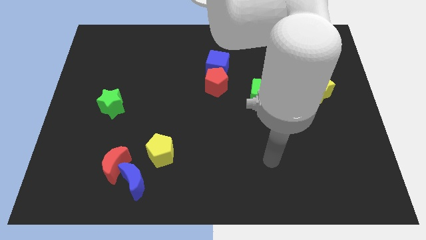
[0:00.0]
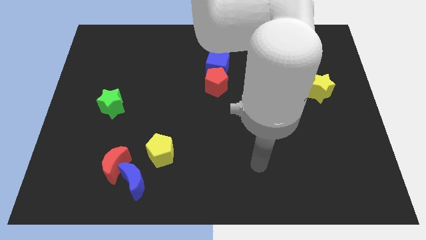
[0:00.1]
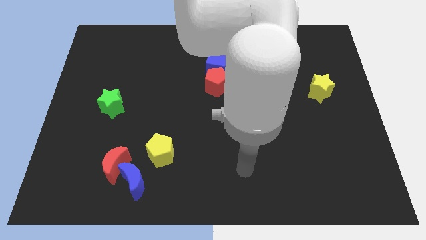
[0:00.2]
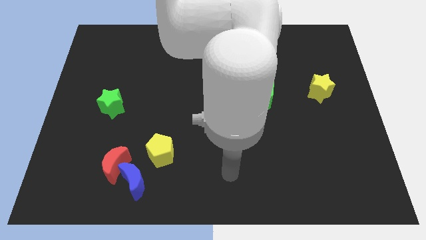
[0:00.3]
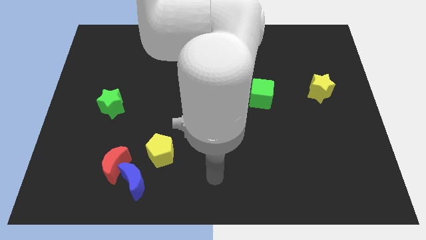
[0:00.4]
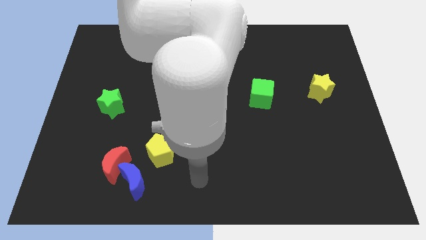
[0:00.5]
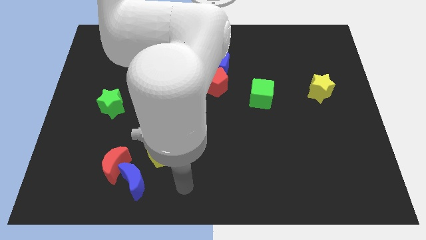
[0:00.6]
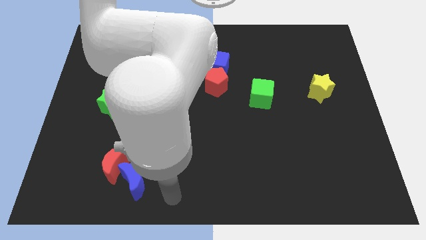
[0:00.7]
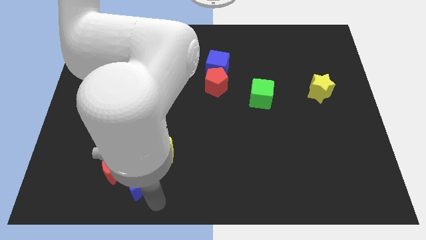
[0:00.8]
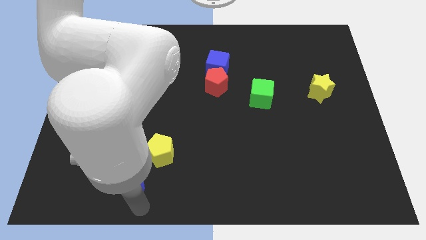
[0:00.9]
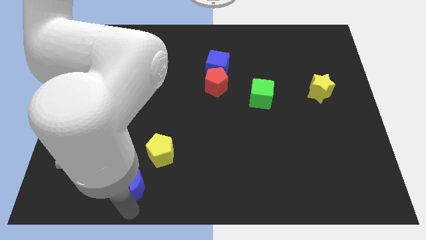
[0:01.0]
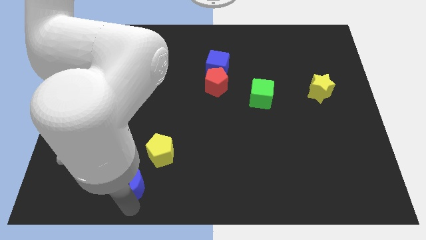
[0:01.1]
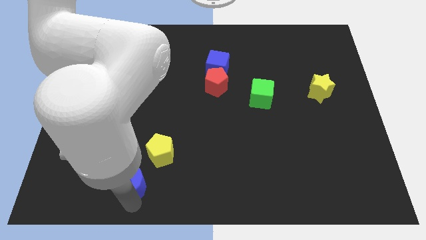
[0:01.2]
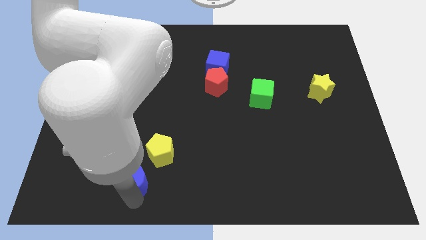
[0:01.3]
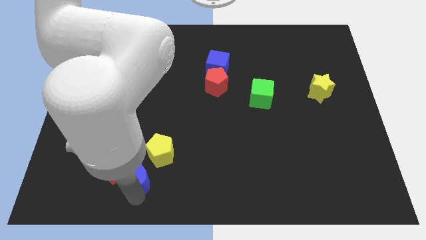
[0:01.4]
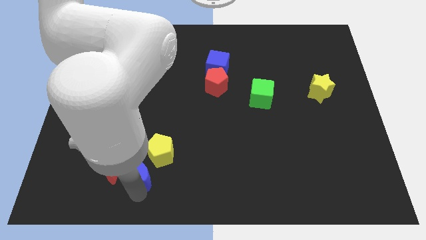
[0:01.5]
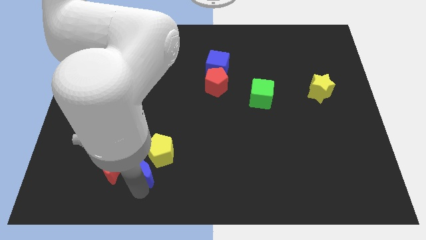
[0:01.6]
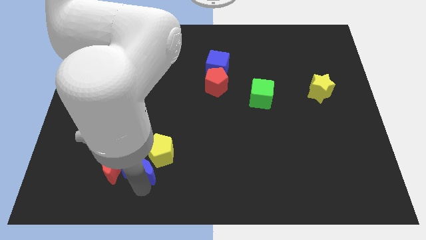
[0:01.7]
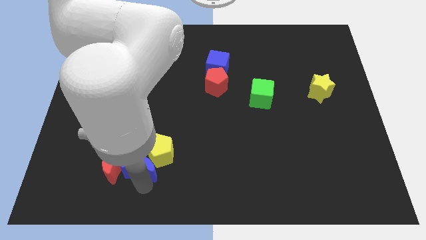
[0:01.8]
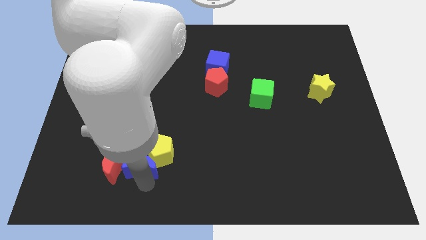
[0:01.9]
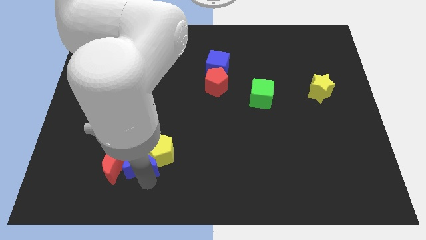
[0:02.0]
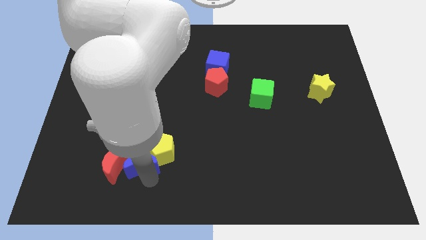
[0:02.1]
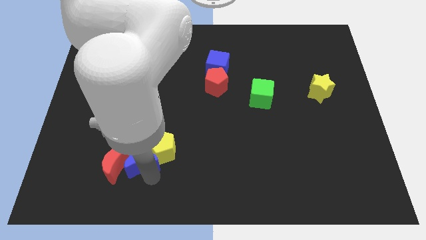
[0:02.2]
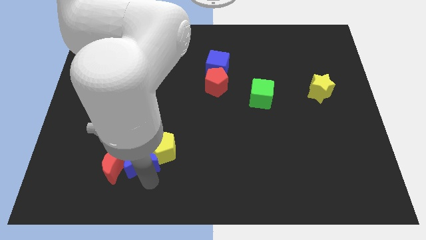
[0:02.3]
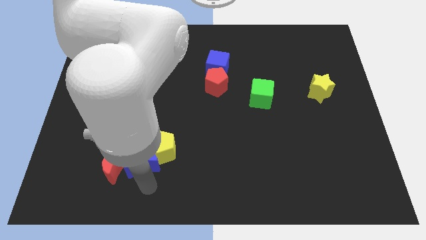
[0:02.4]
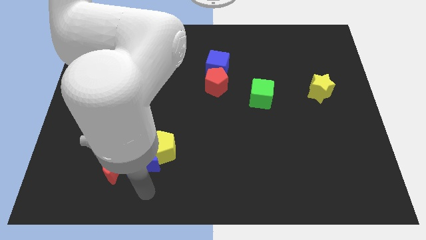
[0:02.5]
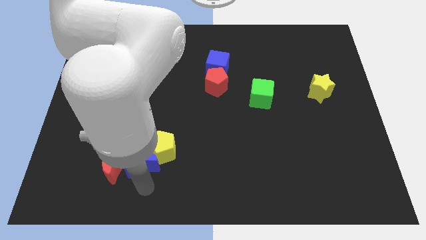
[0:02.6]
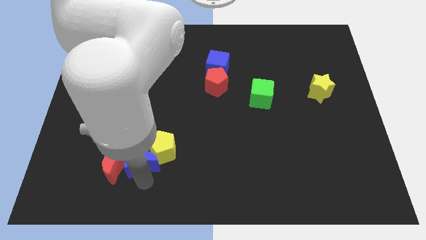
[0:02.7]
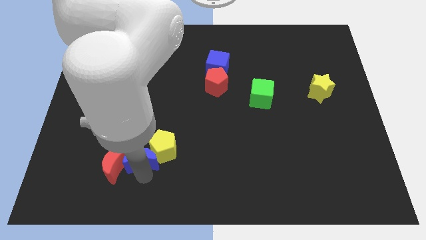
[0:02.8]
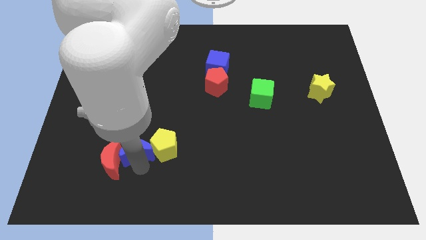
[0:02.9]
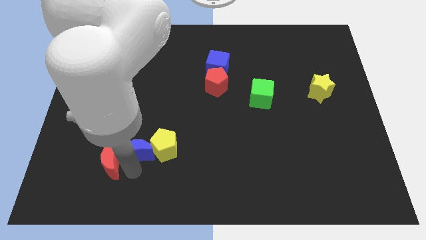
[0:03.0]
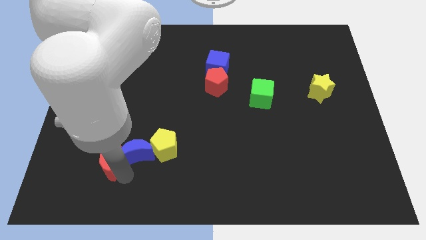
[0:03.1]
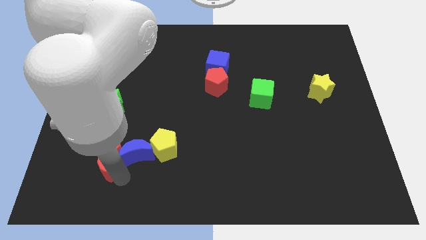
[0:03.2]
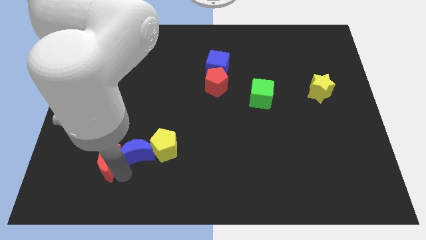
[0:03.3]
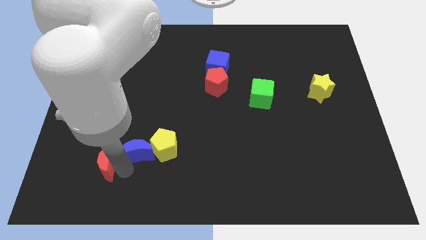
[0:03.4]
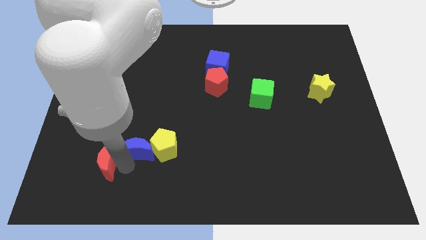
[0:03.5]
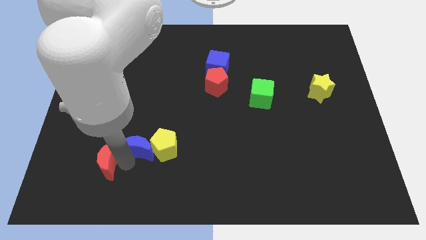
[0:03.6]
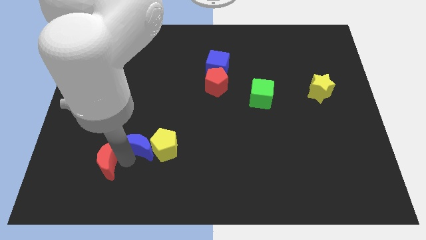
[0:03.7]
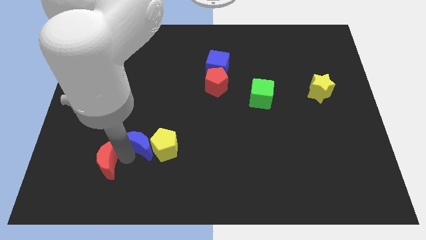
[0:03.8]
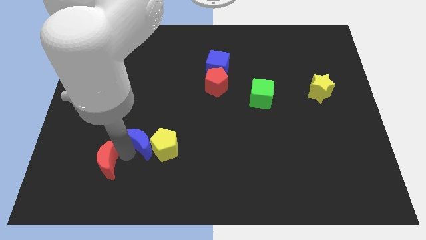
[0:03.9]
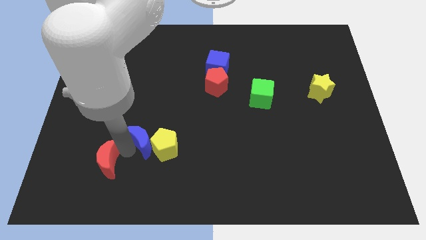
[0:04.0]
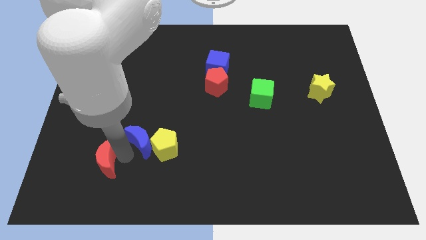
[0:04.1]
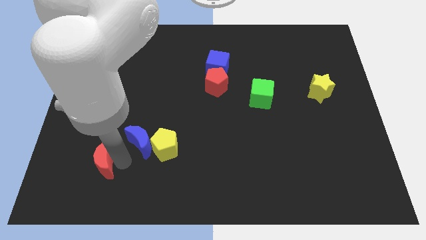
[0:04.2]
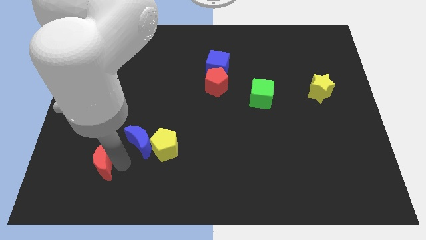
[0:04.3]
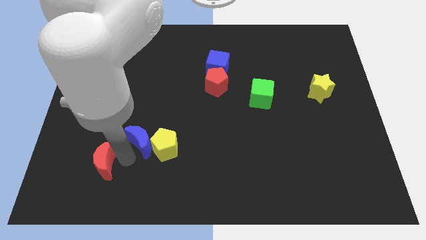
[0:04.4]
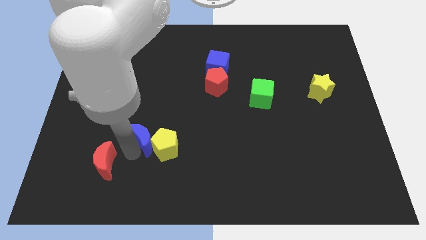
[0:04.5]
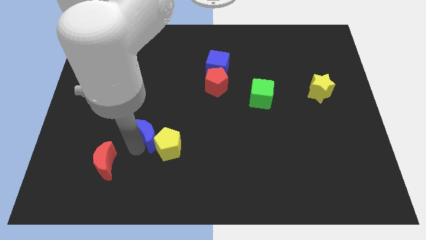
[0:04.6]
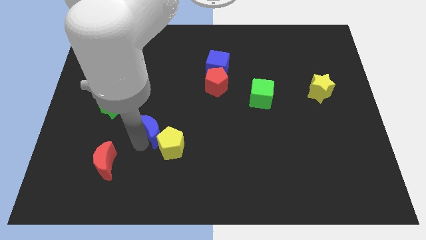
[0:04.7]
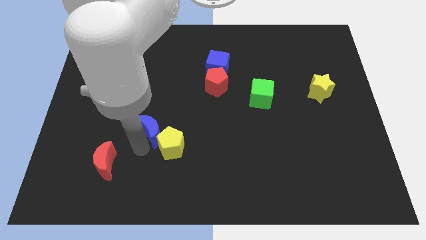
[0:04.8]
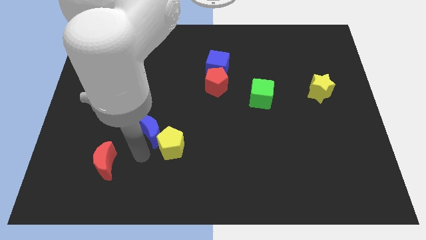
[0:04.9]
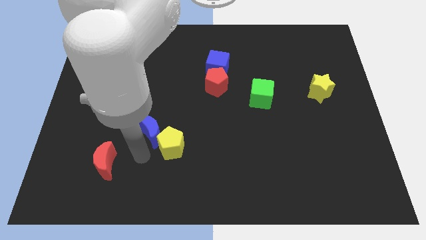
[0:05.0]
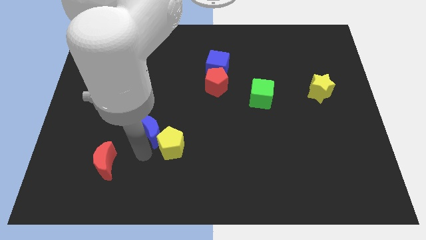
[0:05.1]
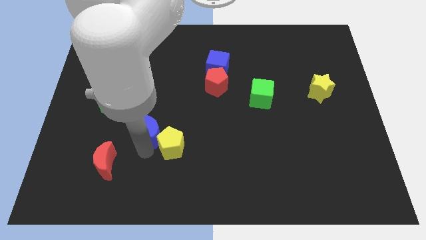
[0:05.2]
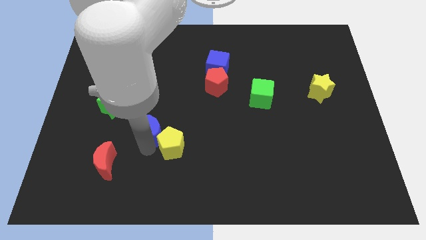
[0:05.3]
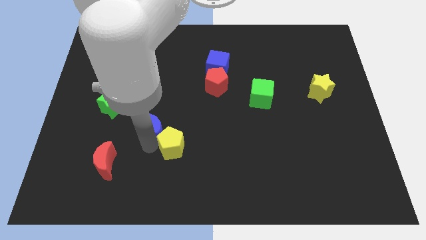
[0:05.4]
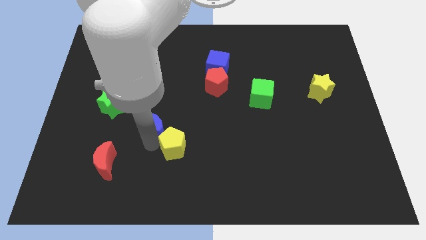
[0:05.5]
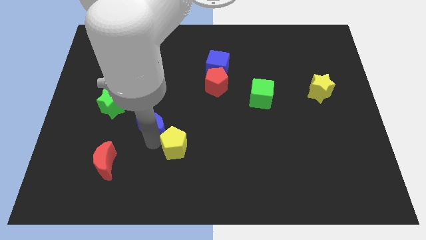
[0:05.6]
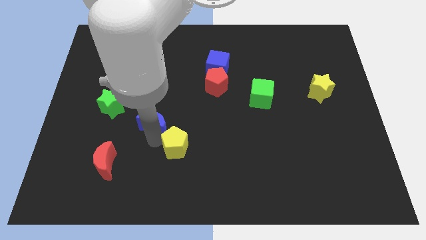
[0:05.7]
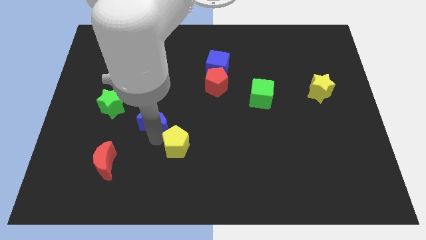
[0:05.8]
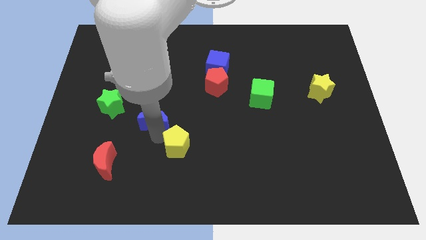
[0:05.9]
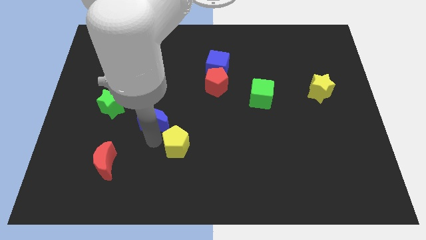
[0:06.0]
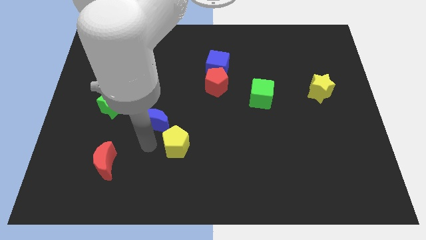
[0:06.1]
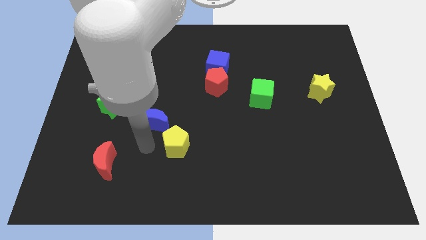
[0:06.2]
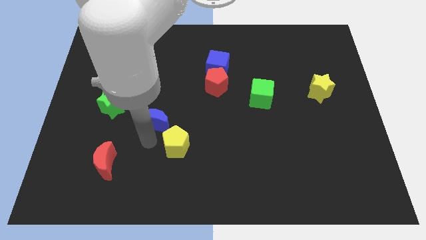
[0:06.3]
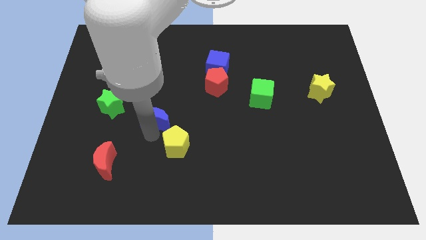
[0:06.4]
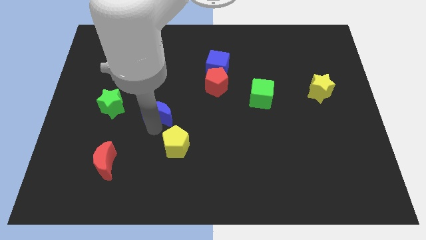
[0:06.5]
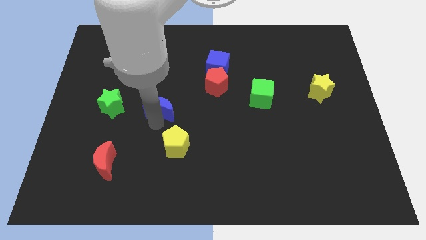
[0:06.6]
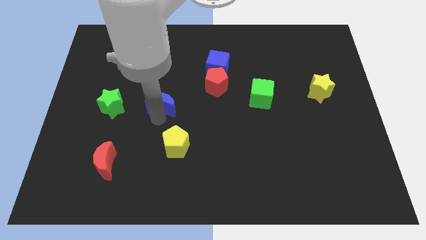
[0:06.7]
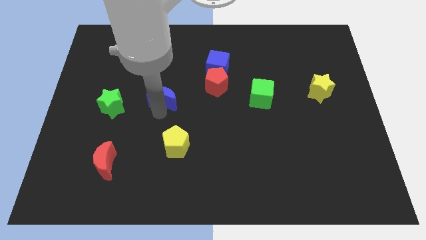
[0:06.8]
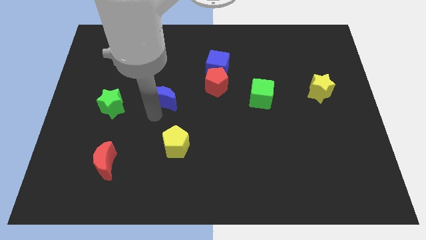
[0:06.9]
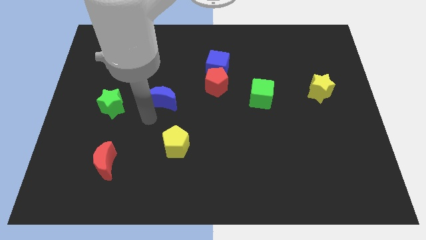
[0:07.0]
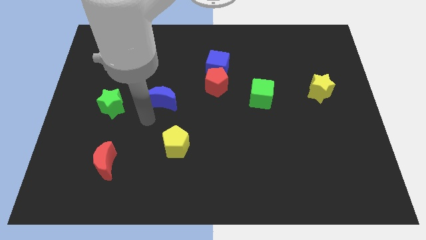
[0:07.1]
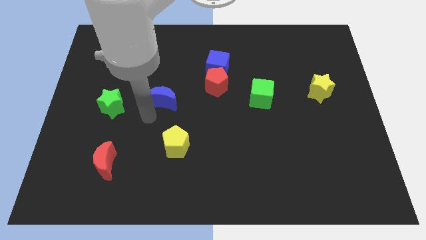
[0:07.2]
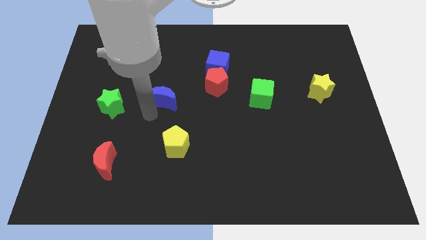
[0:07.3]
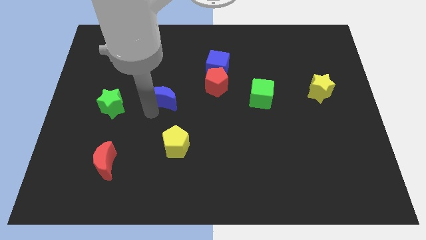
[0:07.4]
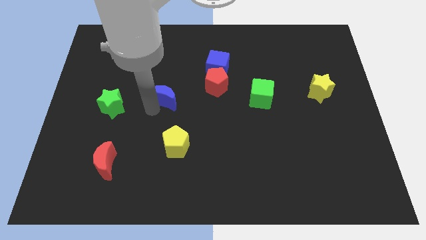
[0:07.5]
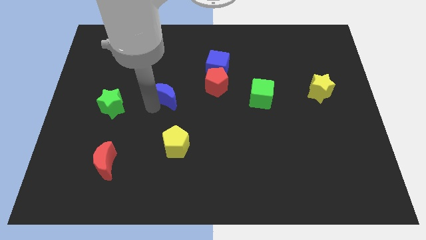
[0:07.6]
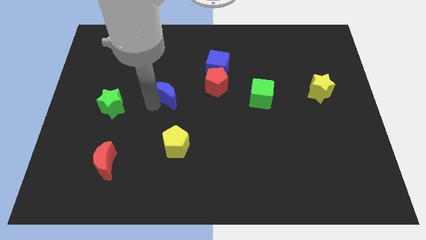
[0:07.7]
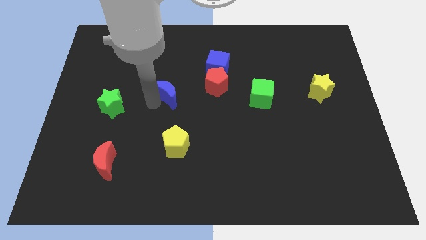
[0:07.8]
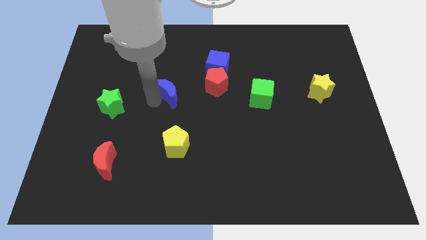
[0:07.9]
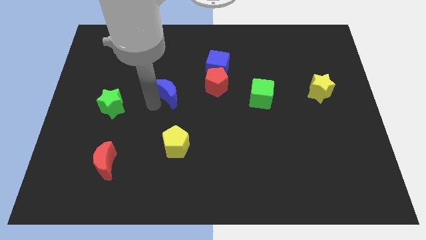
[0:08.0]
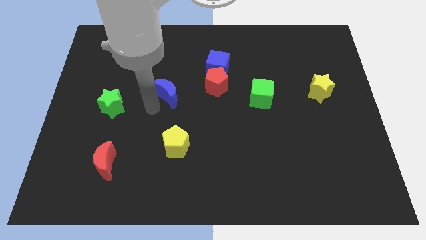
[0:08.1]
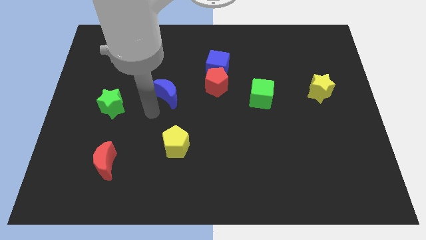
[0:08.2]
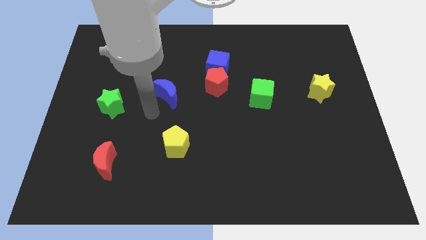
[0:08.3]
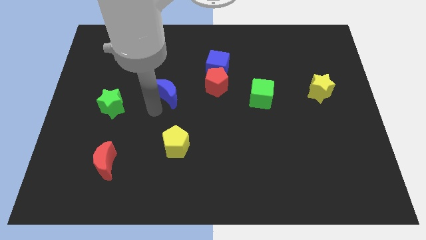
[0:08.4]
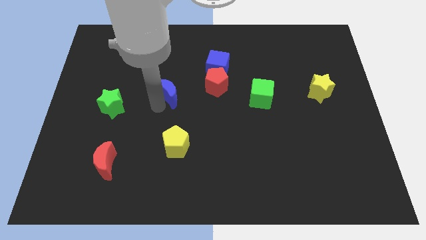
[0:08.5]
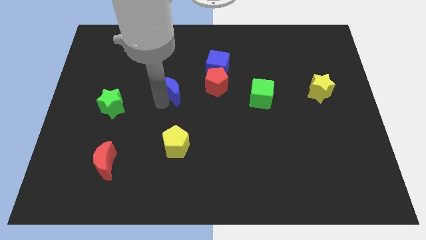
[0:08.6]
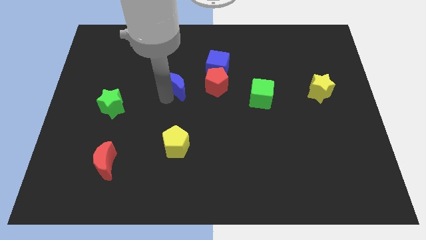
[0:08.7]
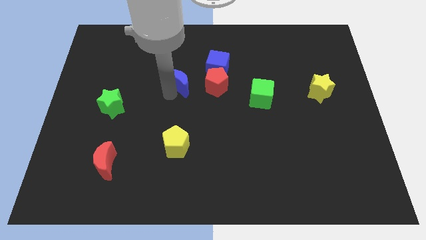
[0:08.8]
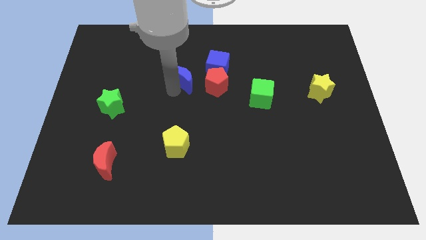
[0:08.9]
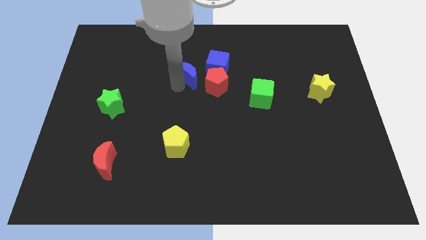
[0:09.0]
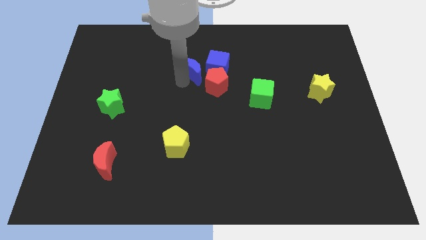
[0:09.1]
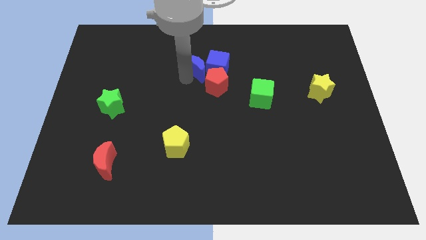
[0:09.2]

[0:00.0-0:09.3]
move the blue moon to the top side of the red pentagon
